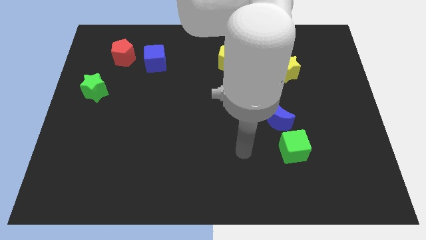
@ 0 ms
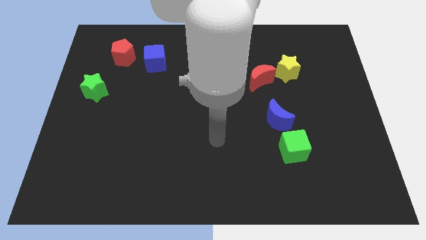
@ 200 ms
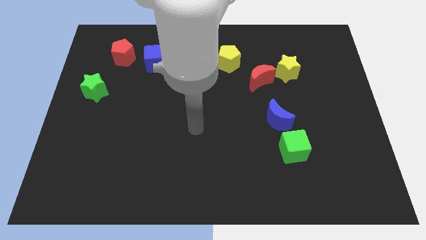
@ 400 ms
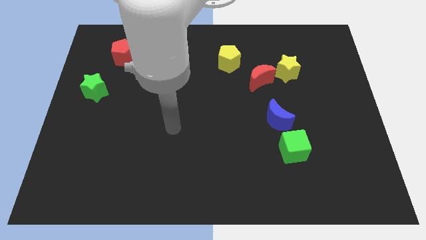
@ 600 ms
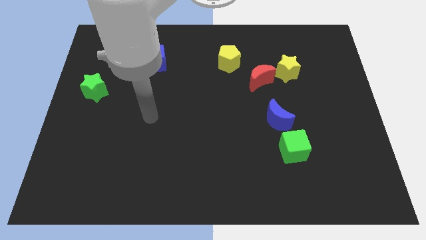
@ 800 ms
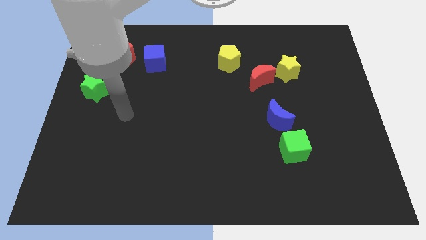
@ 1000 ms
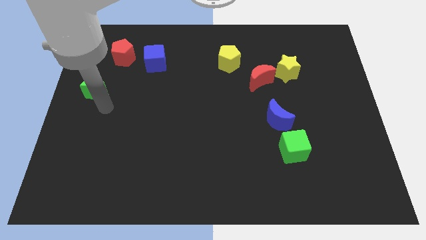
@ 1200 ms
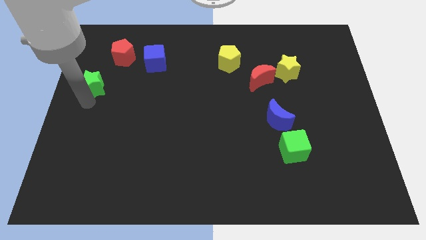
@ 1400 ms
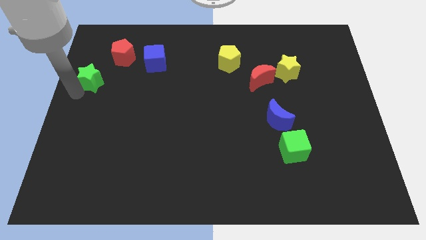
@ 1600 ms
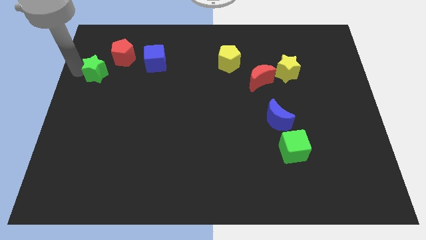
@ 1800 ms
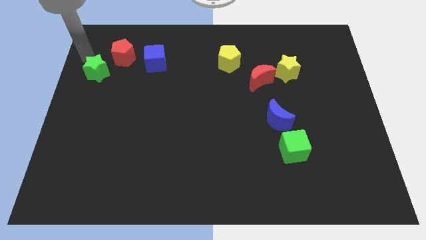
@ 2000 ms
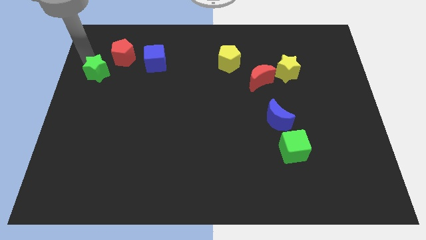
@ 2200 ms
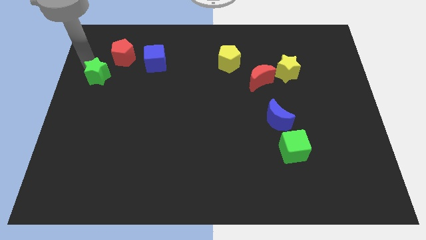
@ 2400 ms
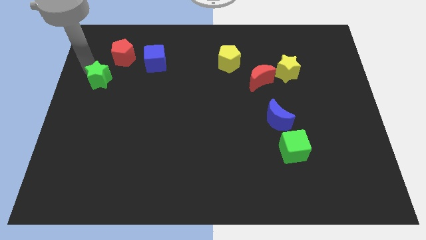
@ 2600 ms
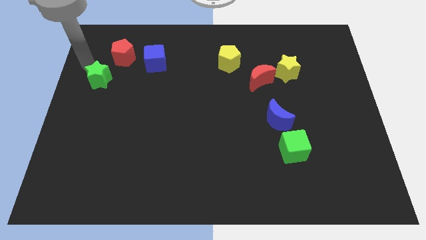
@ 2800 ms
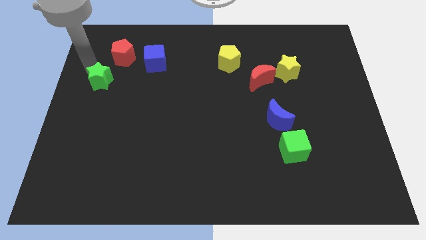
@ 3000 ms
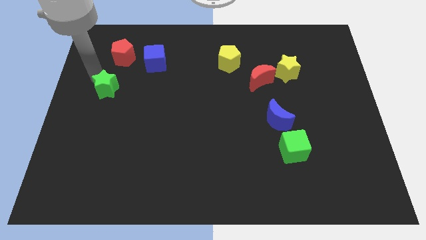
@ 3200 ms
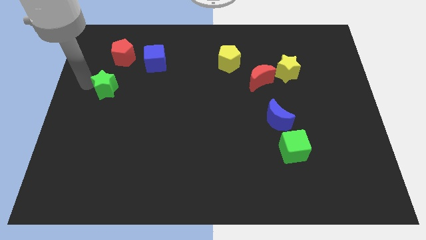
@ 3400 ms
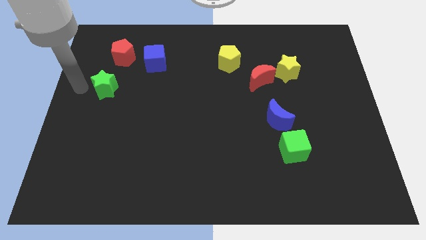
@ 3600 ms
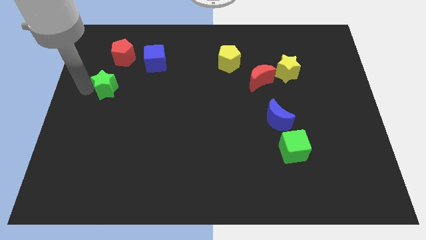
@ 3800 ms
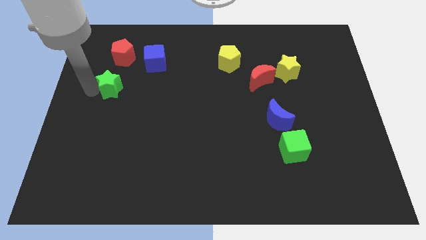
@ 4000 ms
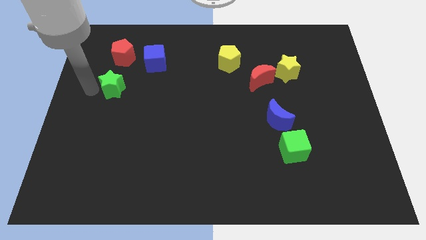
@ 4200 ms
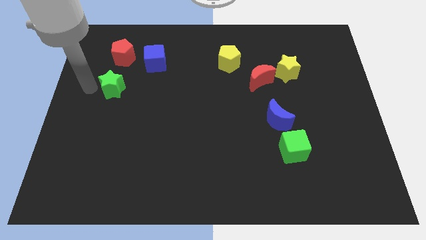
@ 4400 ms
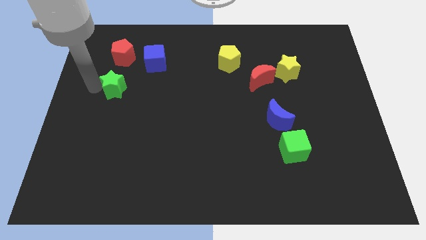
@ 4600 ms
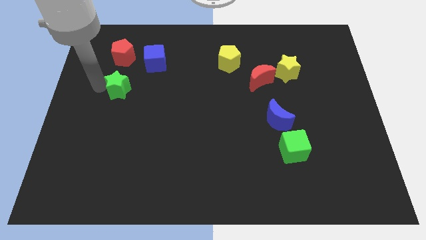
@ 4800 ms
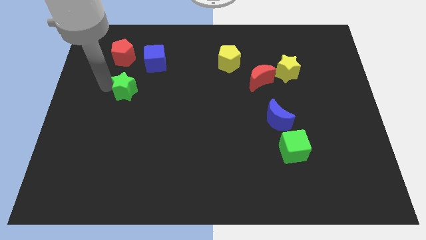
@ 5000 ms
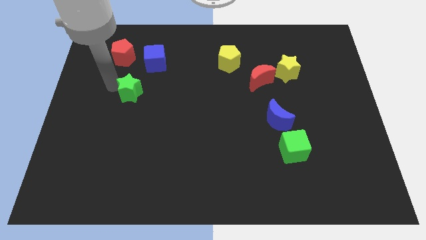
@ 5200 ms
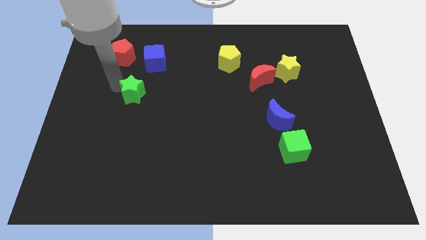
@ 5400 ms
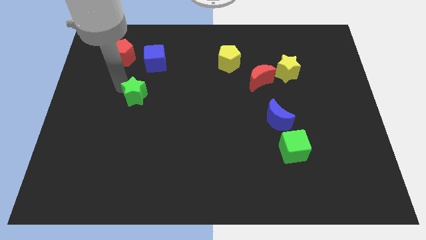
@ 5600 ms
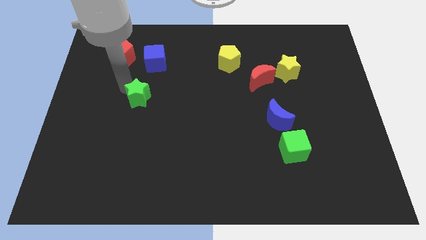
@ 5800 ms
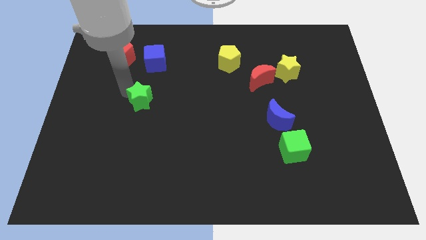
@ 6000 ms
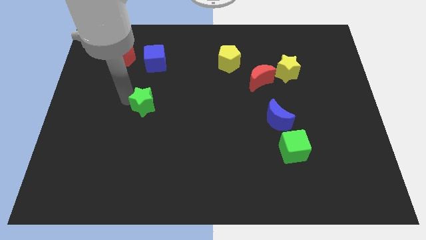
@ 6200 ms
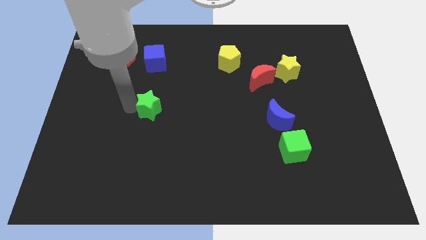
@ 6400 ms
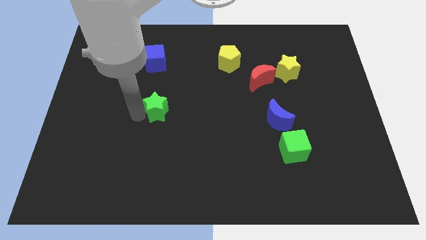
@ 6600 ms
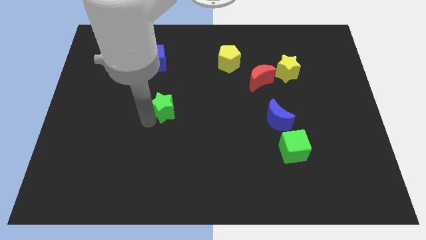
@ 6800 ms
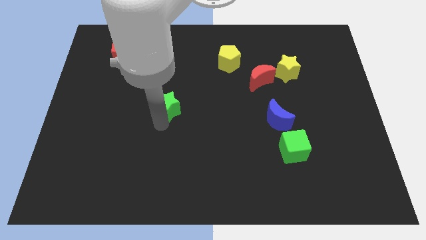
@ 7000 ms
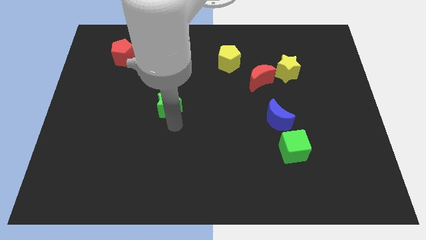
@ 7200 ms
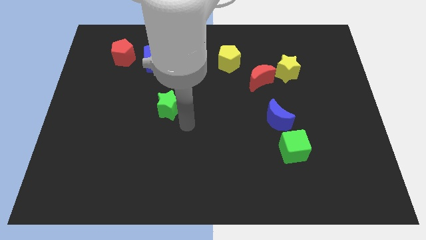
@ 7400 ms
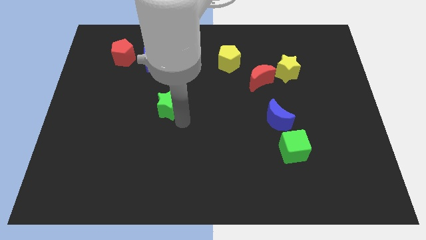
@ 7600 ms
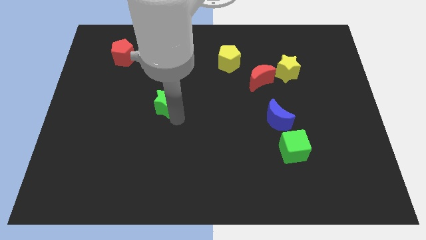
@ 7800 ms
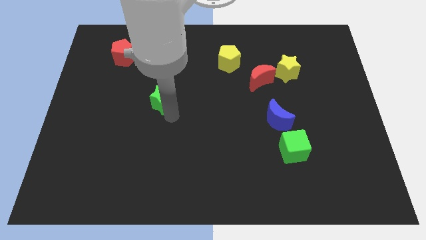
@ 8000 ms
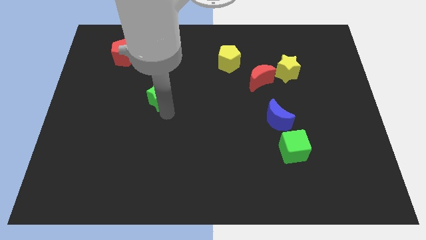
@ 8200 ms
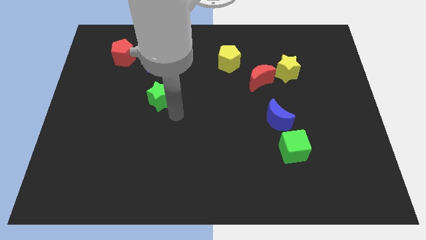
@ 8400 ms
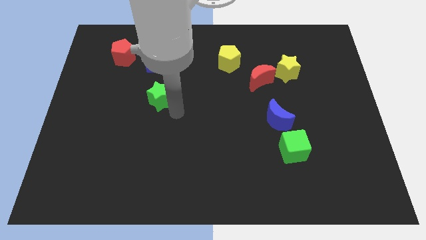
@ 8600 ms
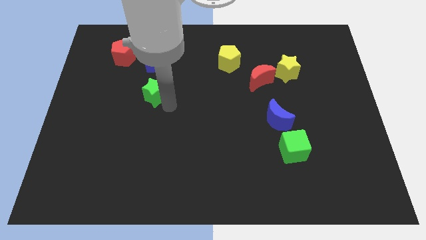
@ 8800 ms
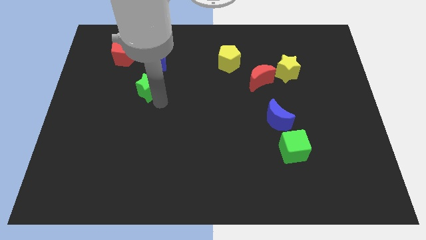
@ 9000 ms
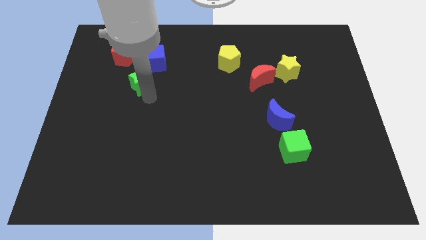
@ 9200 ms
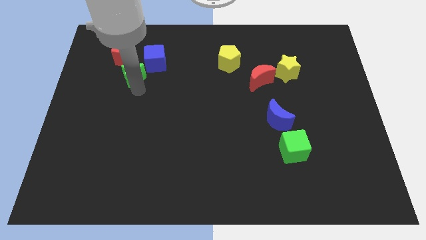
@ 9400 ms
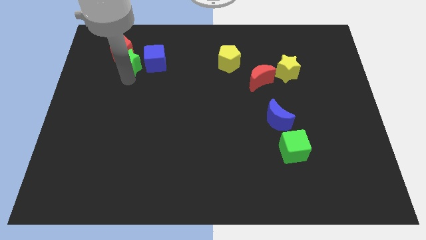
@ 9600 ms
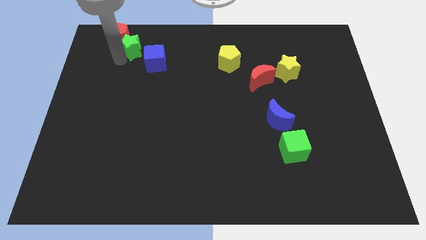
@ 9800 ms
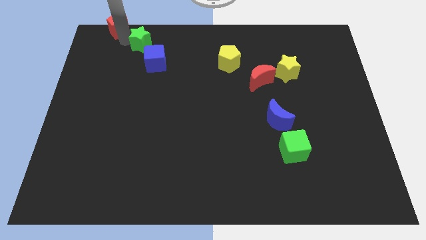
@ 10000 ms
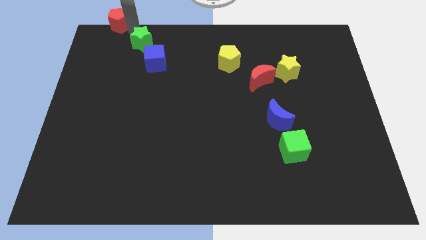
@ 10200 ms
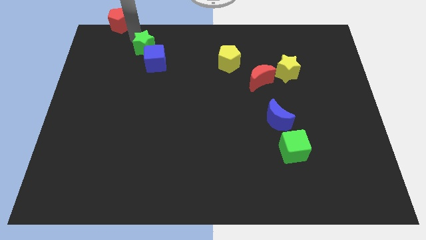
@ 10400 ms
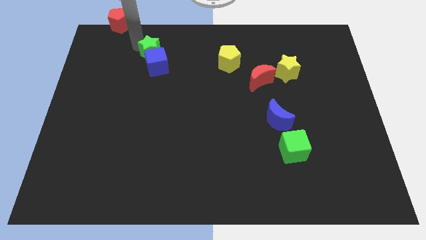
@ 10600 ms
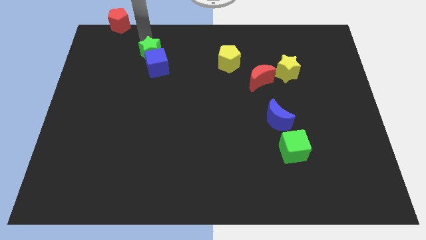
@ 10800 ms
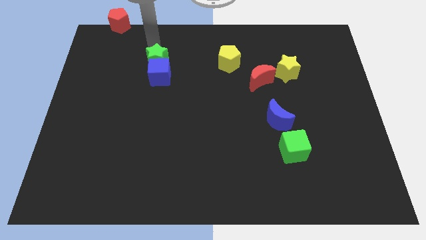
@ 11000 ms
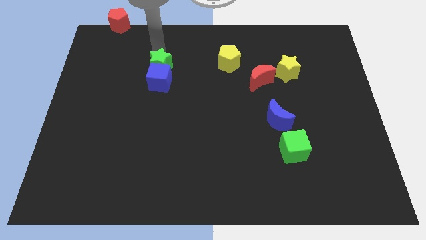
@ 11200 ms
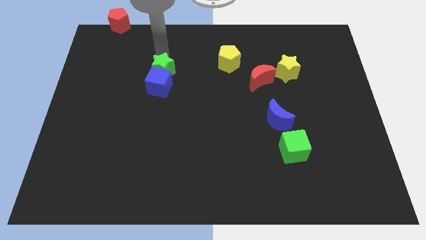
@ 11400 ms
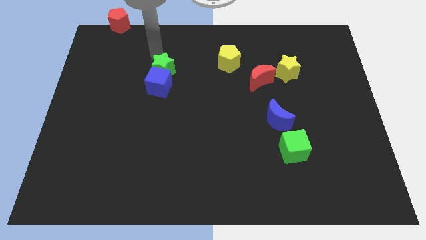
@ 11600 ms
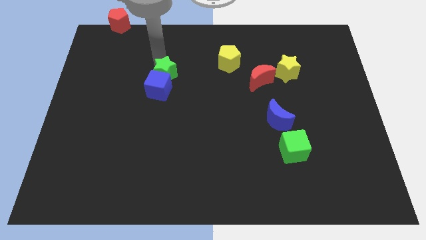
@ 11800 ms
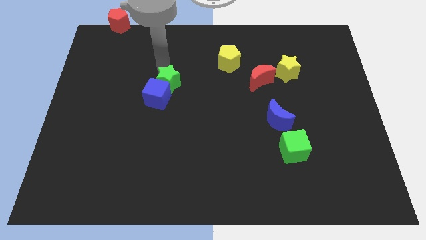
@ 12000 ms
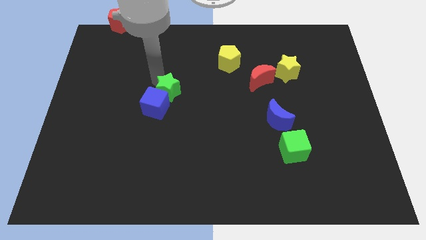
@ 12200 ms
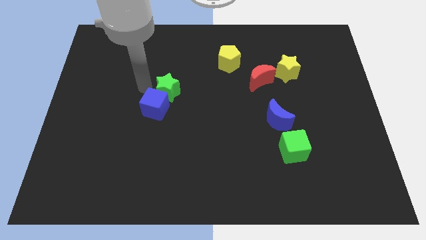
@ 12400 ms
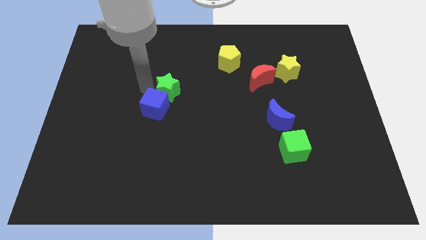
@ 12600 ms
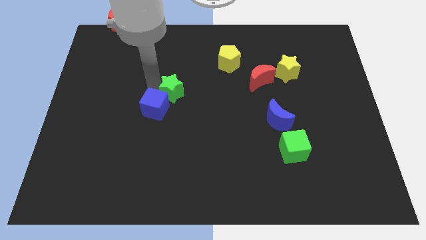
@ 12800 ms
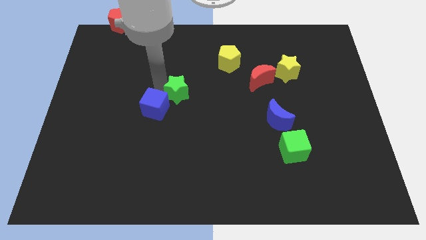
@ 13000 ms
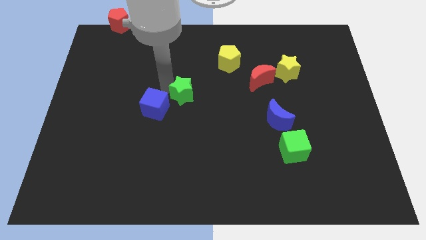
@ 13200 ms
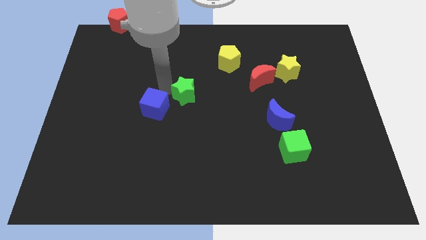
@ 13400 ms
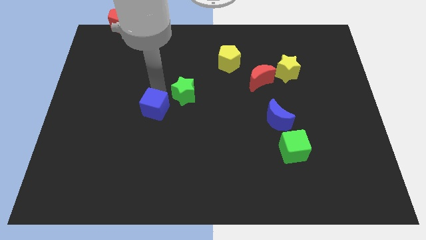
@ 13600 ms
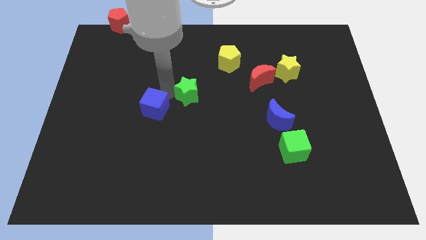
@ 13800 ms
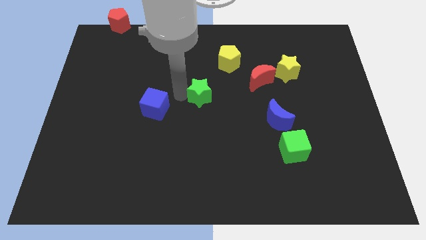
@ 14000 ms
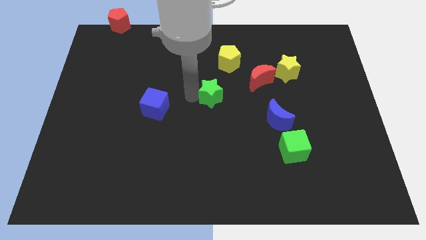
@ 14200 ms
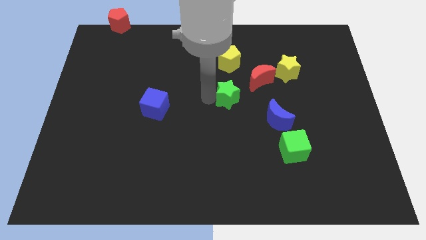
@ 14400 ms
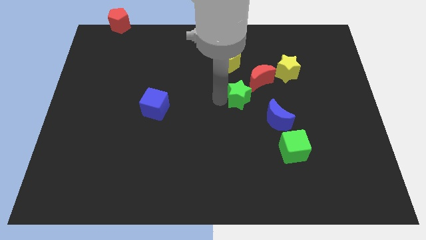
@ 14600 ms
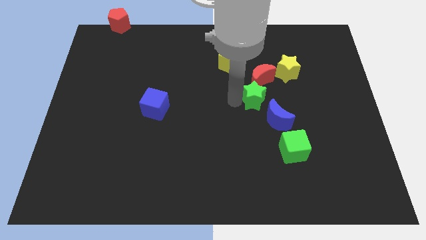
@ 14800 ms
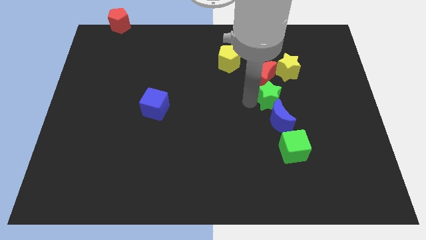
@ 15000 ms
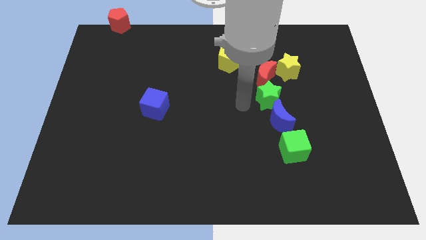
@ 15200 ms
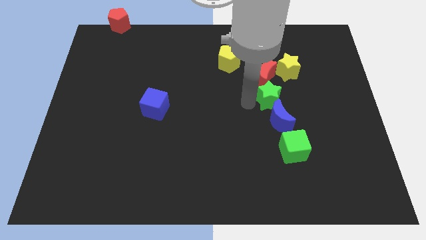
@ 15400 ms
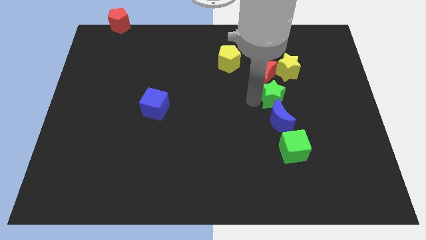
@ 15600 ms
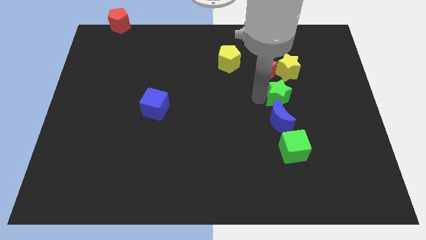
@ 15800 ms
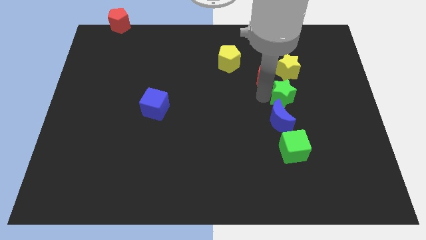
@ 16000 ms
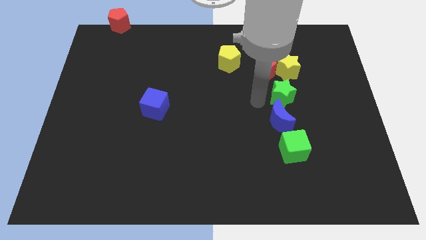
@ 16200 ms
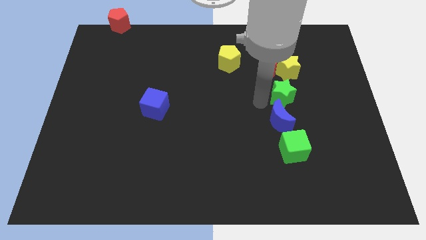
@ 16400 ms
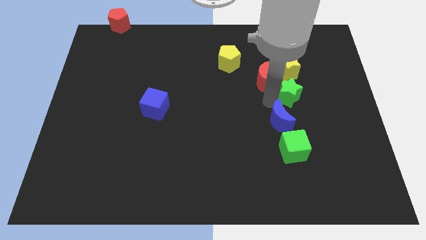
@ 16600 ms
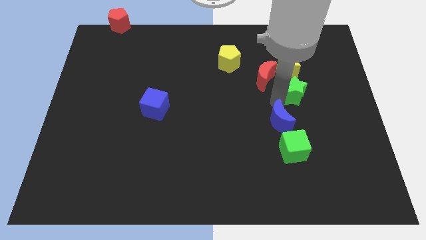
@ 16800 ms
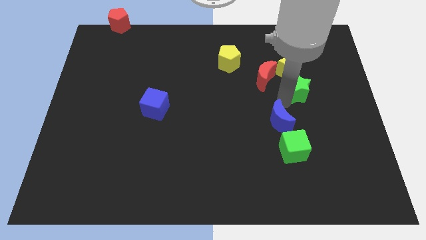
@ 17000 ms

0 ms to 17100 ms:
put the green star to the right of the red moon
